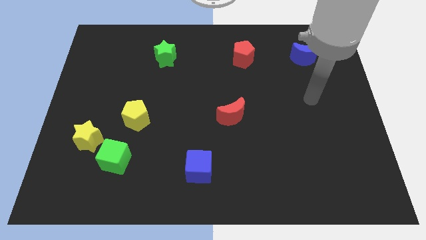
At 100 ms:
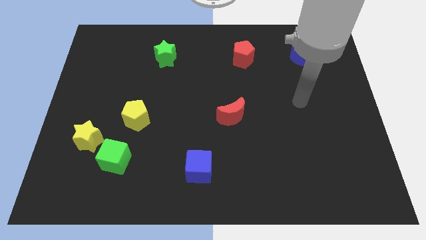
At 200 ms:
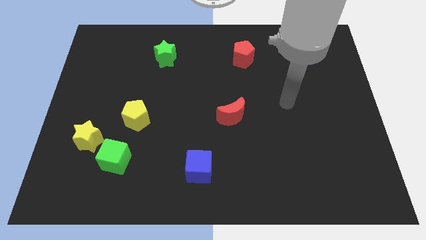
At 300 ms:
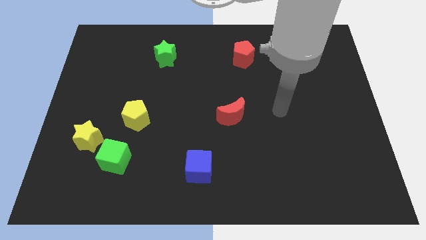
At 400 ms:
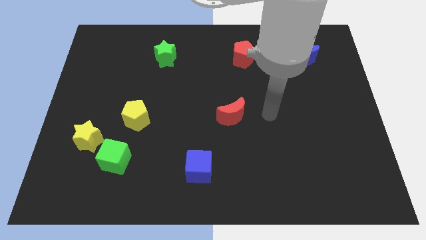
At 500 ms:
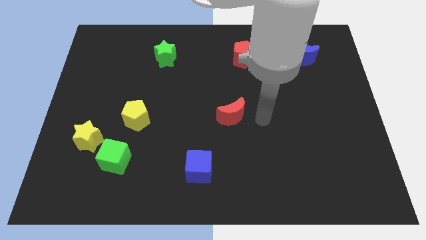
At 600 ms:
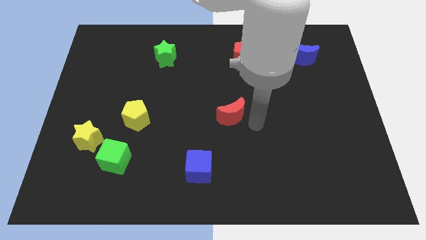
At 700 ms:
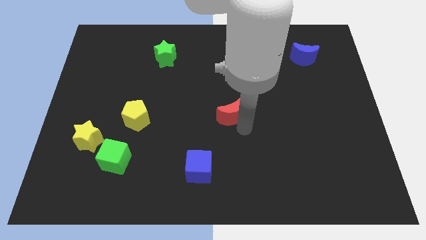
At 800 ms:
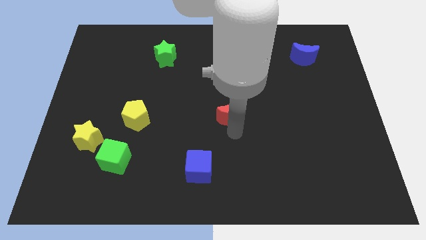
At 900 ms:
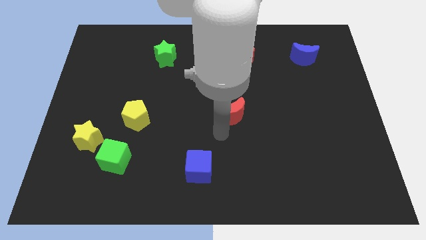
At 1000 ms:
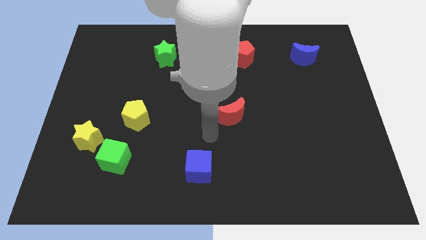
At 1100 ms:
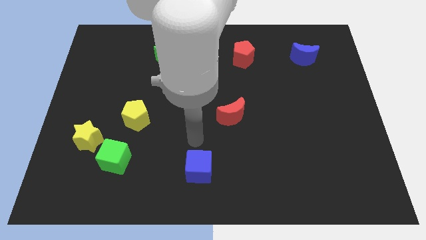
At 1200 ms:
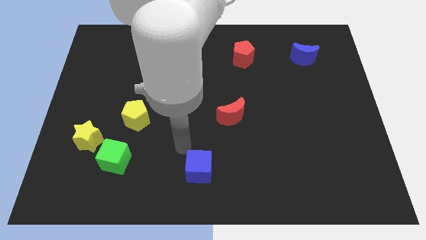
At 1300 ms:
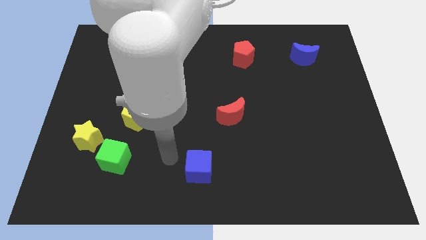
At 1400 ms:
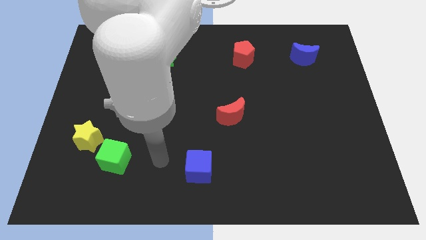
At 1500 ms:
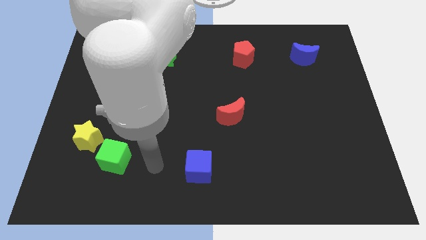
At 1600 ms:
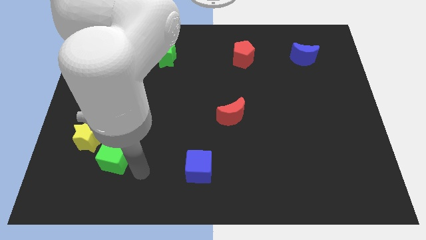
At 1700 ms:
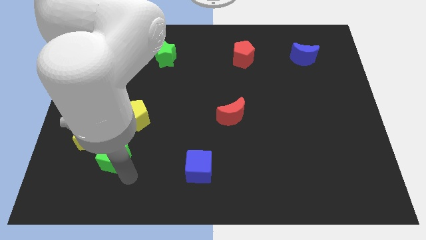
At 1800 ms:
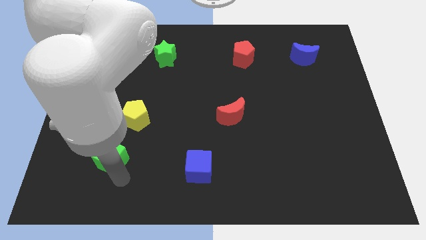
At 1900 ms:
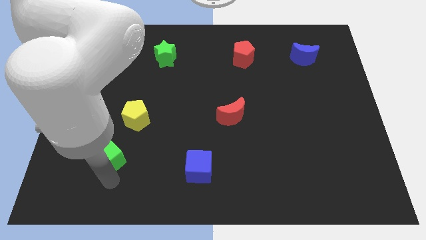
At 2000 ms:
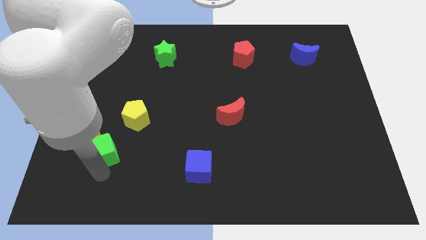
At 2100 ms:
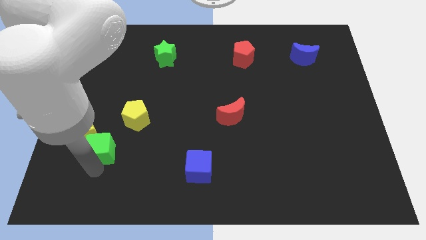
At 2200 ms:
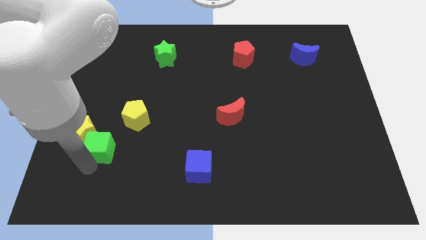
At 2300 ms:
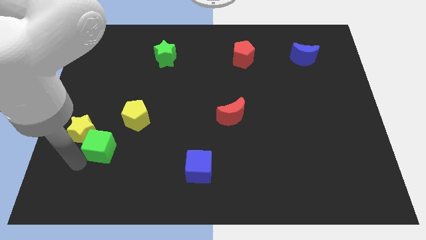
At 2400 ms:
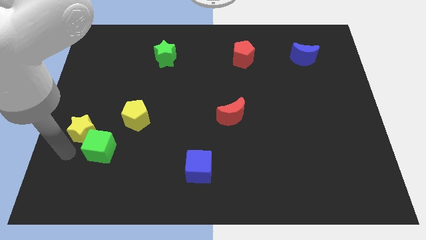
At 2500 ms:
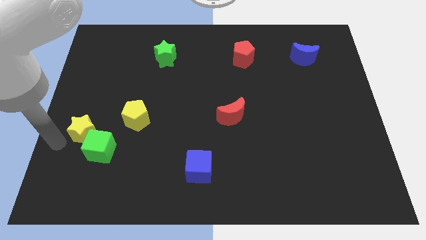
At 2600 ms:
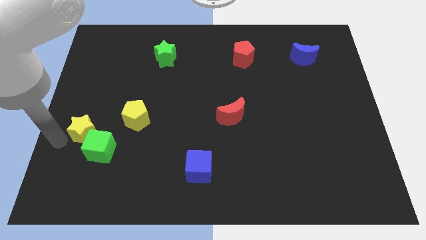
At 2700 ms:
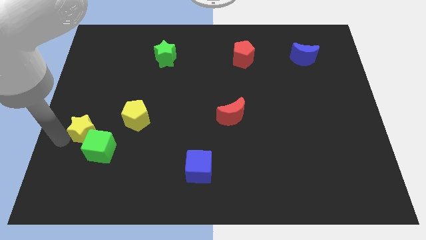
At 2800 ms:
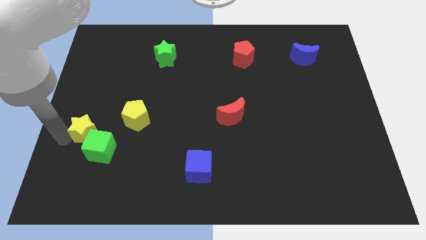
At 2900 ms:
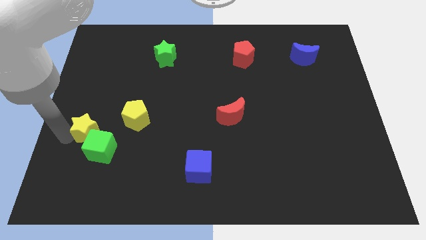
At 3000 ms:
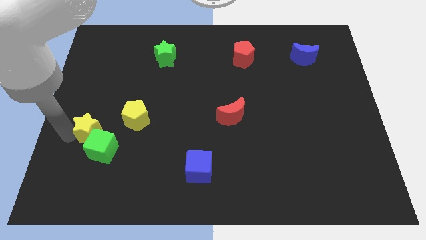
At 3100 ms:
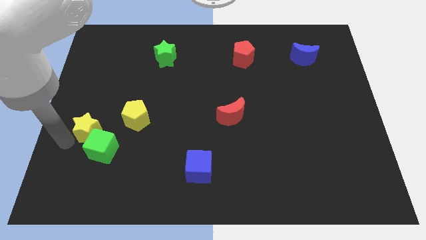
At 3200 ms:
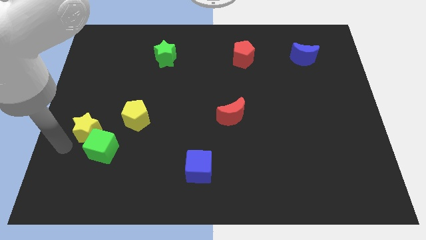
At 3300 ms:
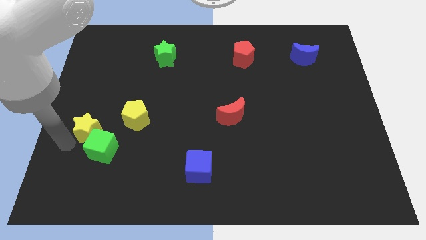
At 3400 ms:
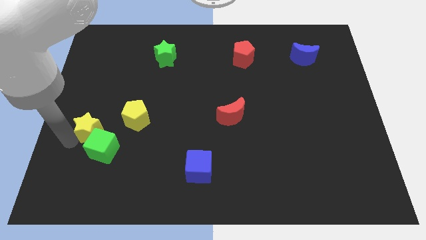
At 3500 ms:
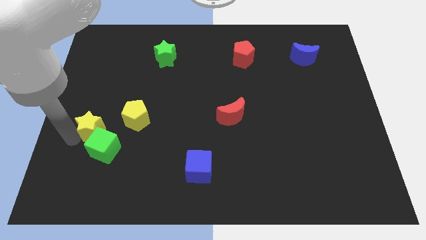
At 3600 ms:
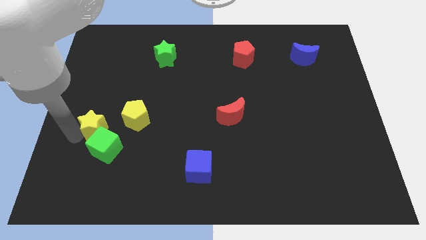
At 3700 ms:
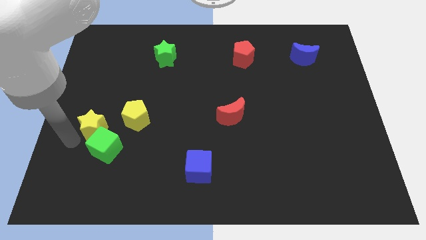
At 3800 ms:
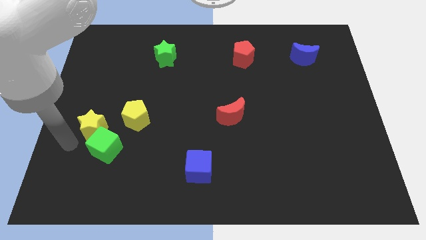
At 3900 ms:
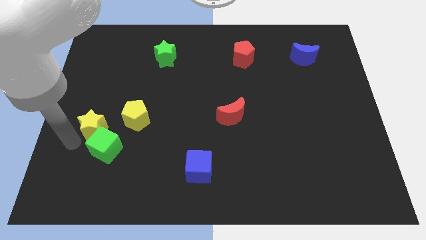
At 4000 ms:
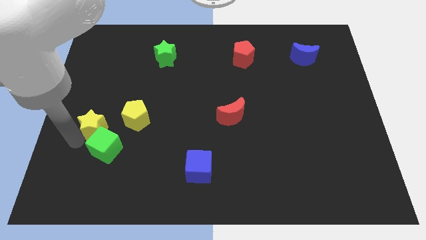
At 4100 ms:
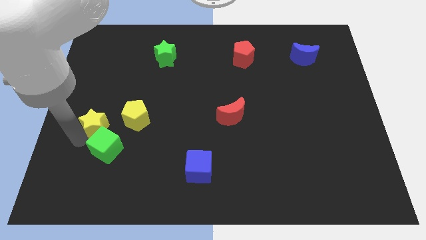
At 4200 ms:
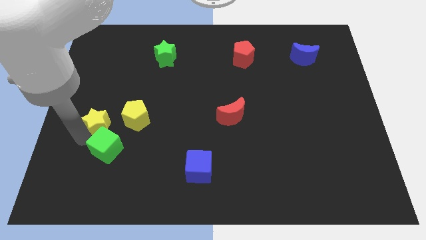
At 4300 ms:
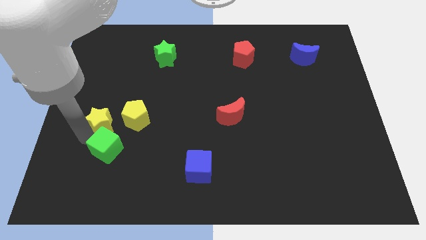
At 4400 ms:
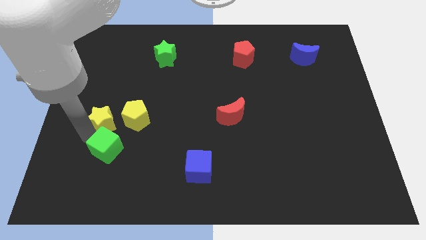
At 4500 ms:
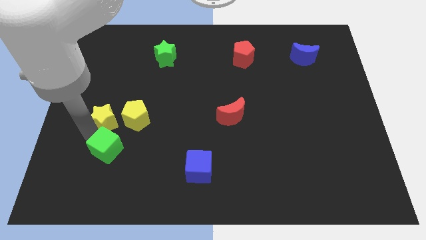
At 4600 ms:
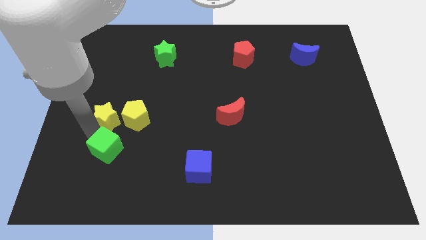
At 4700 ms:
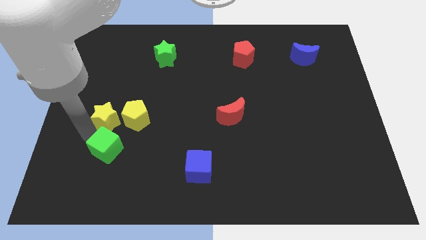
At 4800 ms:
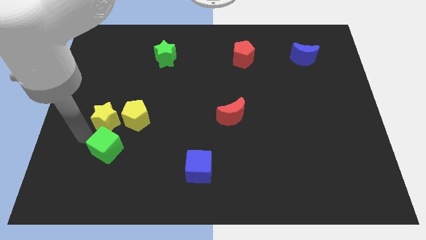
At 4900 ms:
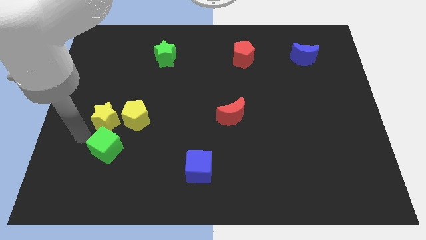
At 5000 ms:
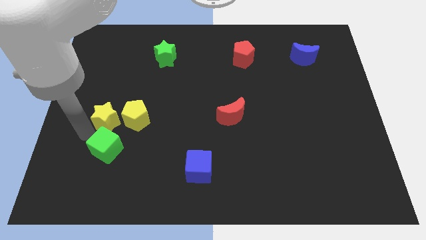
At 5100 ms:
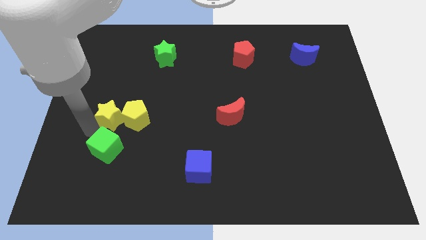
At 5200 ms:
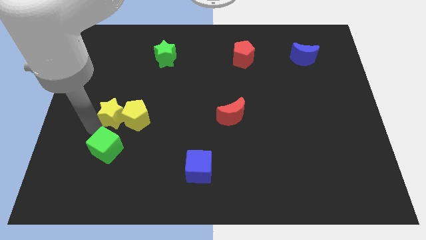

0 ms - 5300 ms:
slightly move the yellow star diagonally upwards and right

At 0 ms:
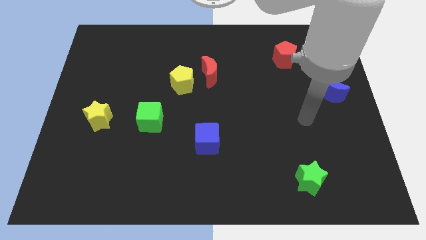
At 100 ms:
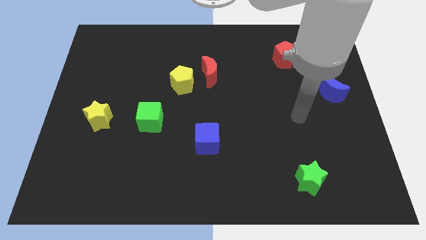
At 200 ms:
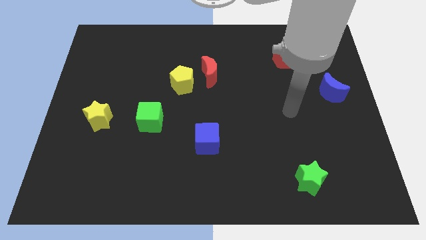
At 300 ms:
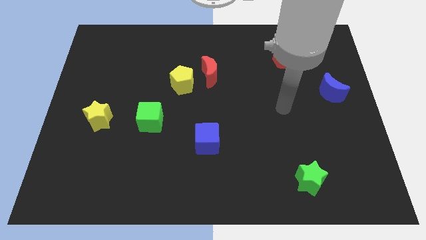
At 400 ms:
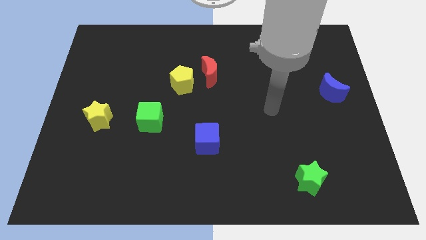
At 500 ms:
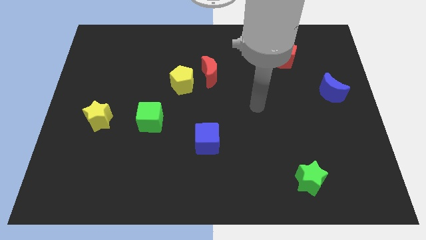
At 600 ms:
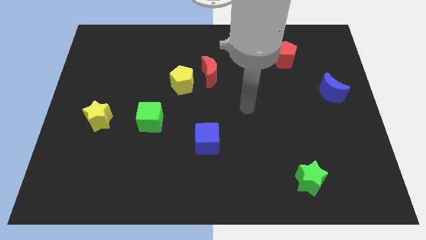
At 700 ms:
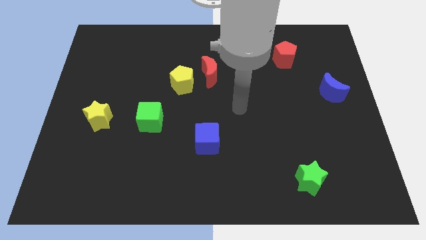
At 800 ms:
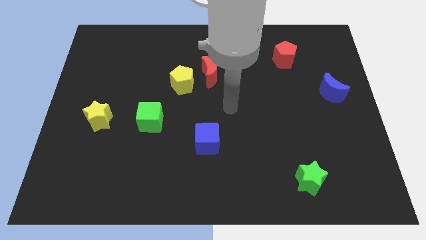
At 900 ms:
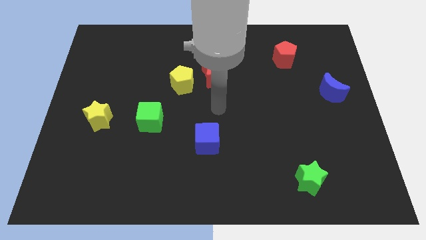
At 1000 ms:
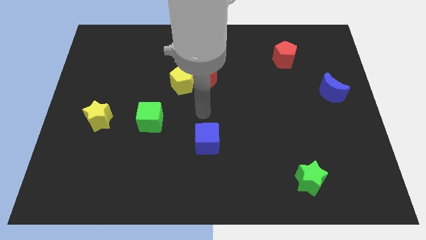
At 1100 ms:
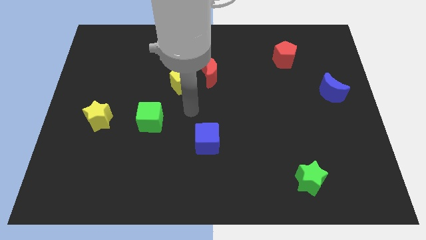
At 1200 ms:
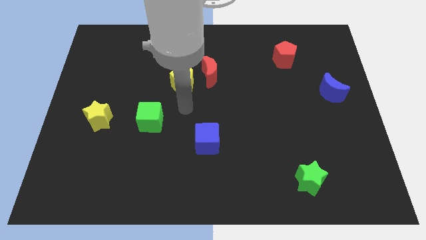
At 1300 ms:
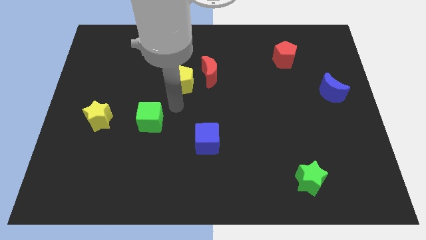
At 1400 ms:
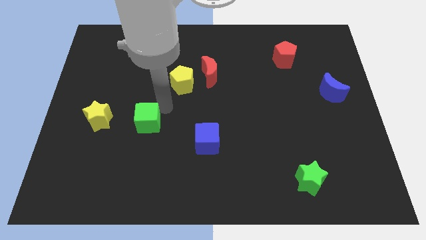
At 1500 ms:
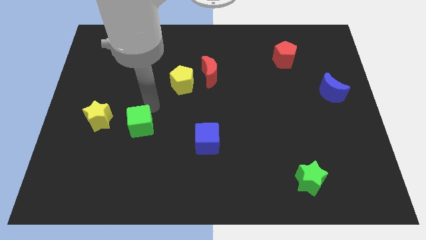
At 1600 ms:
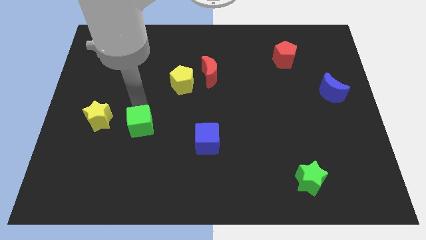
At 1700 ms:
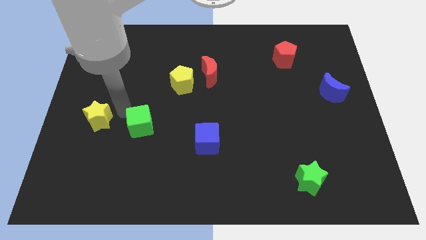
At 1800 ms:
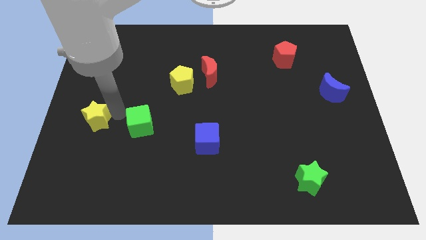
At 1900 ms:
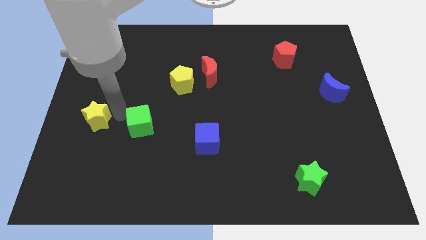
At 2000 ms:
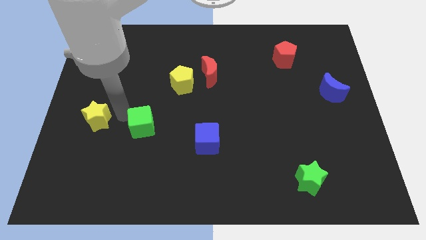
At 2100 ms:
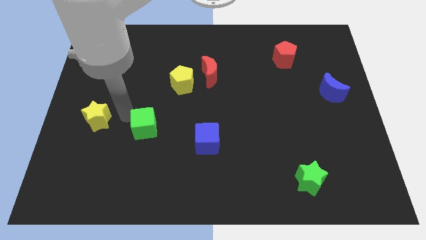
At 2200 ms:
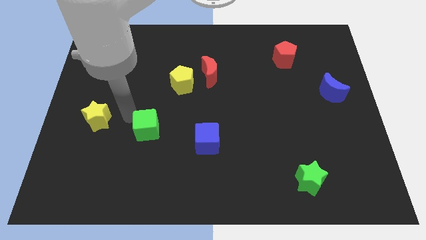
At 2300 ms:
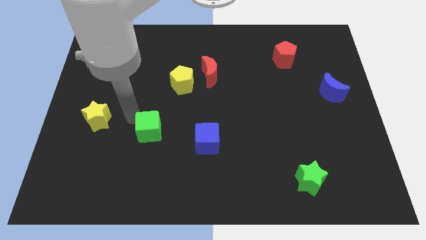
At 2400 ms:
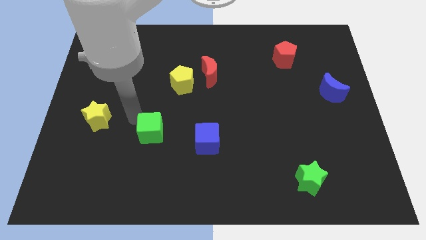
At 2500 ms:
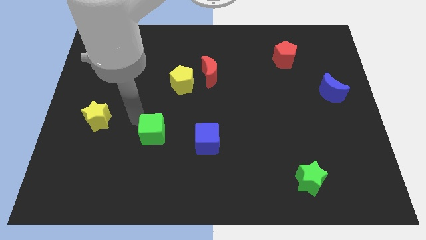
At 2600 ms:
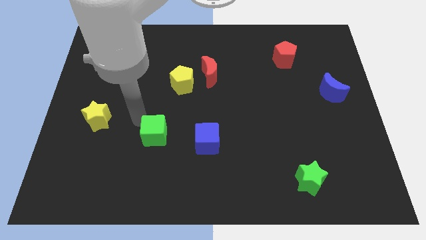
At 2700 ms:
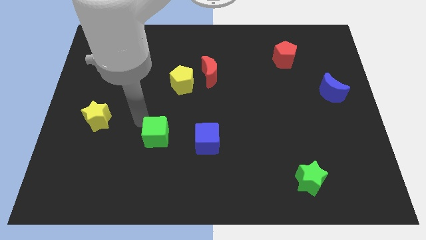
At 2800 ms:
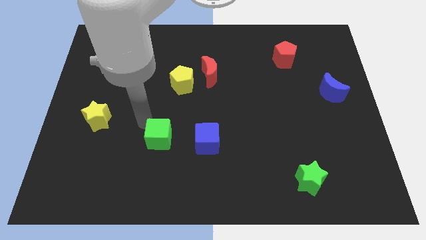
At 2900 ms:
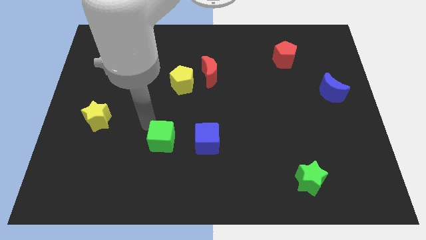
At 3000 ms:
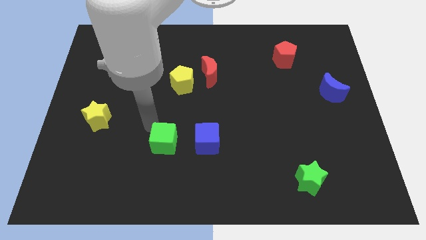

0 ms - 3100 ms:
move the green cube slightly down and to the right diagonally
